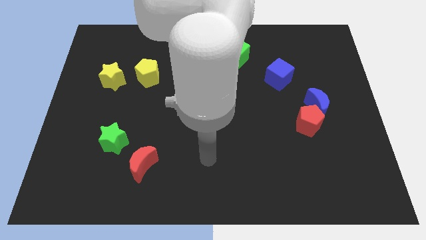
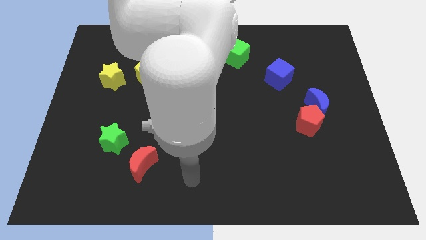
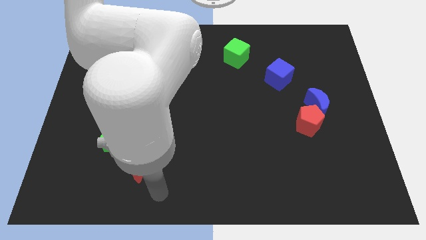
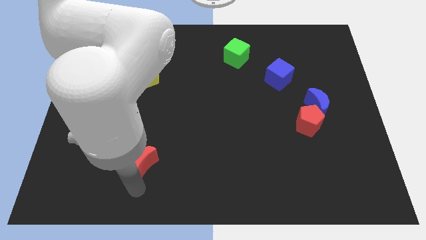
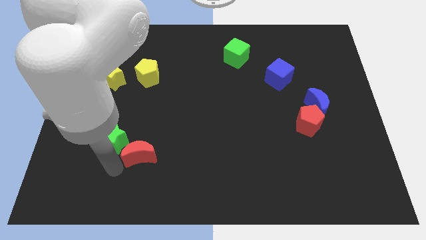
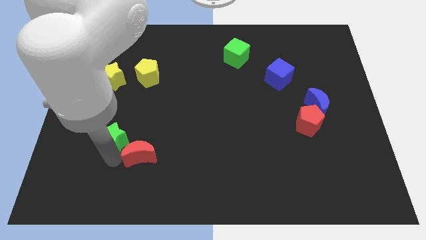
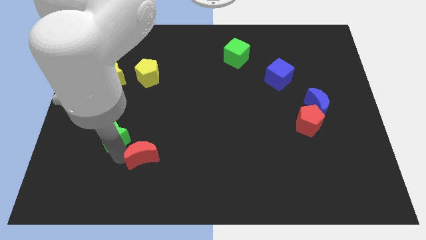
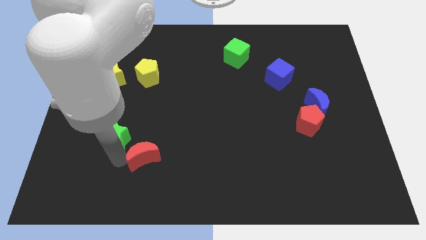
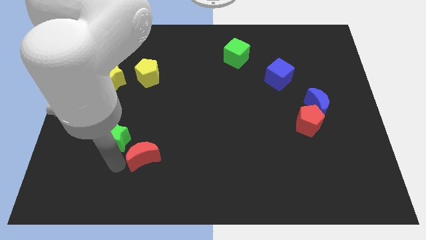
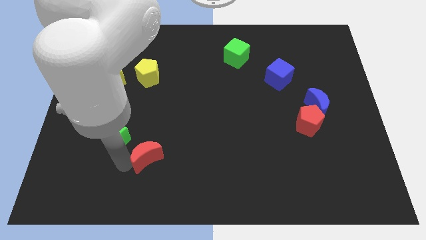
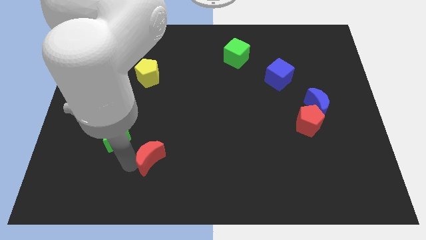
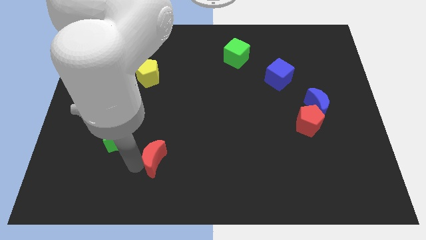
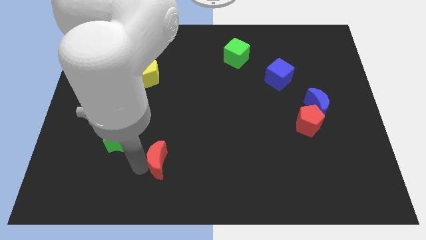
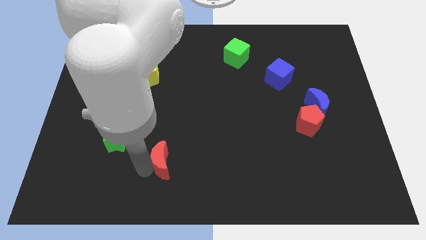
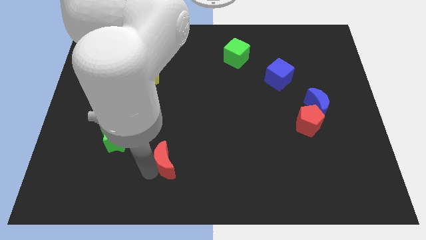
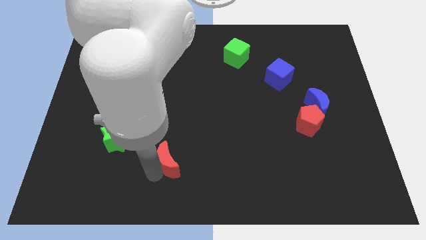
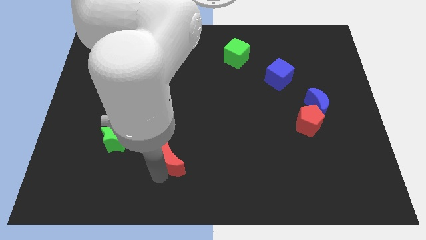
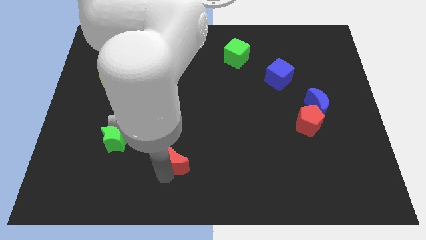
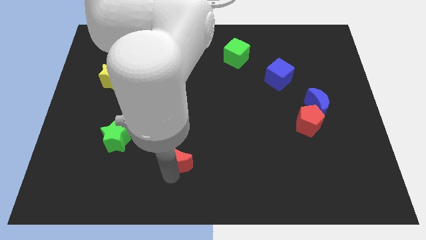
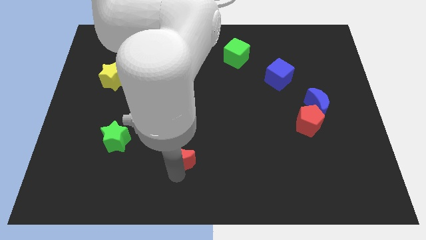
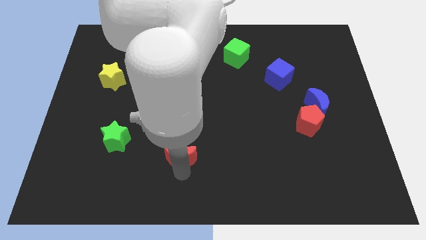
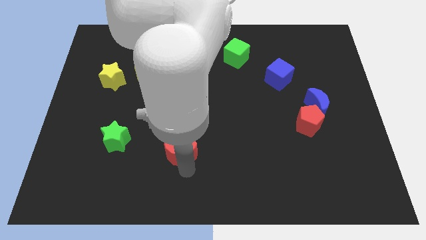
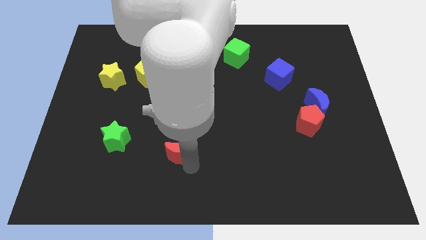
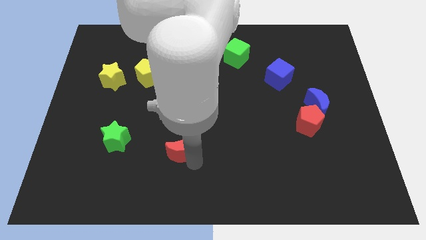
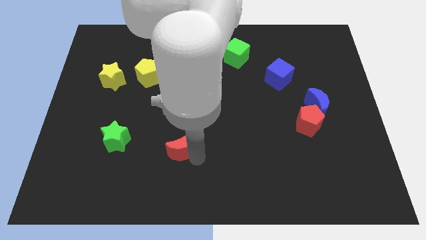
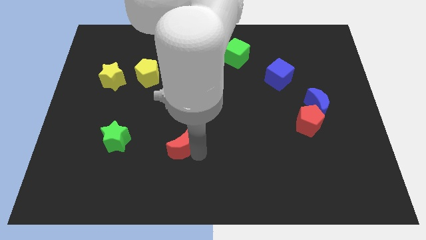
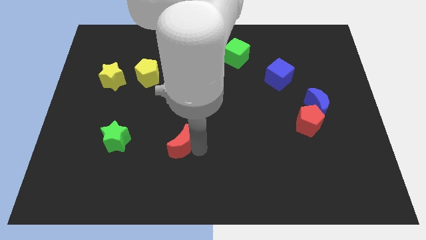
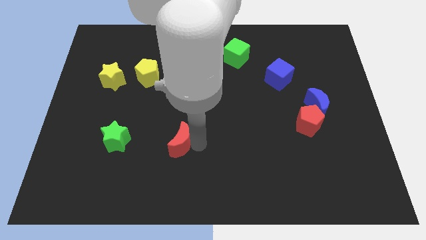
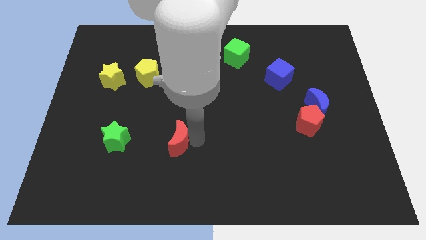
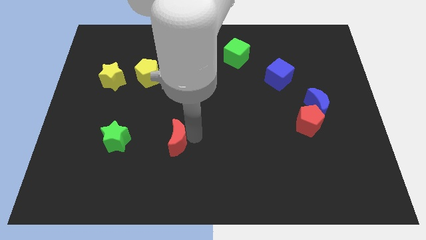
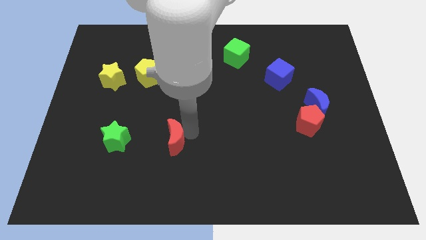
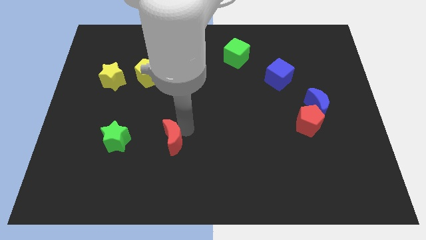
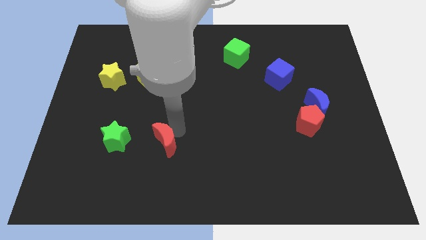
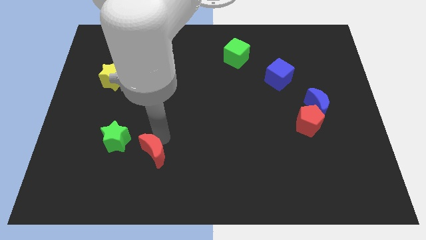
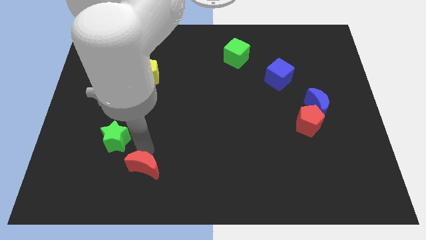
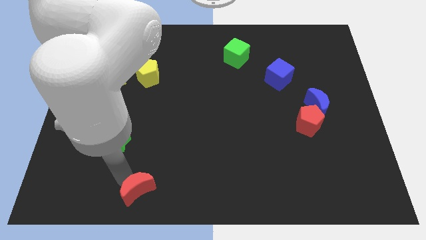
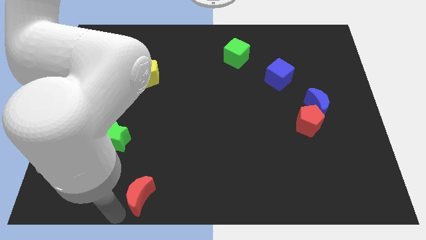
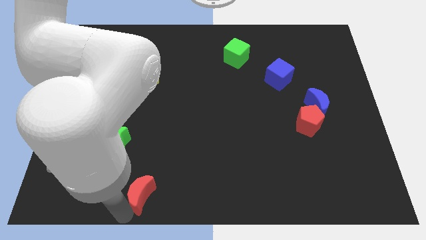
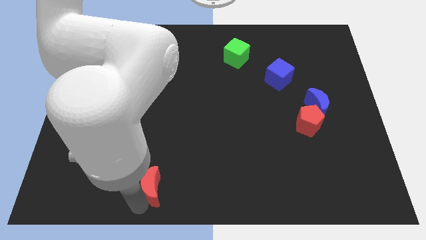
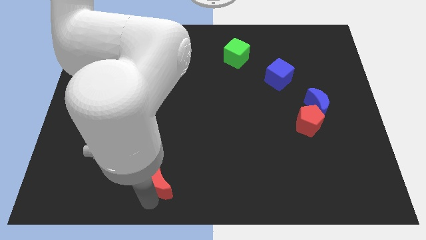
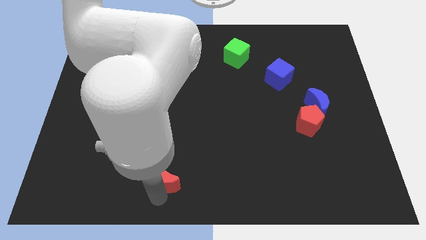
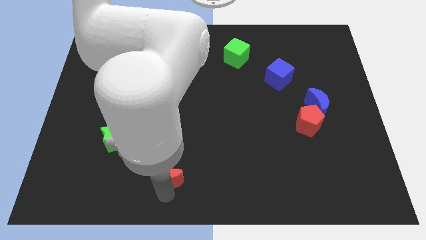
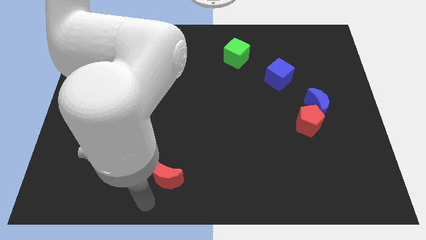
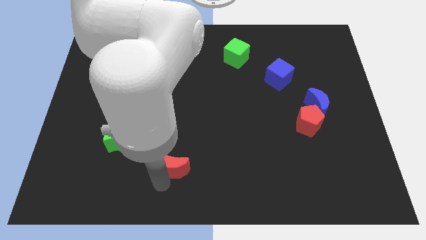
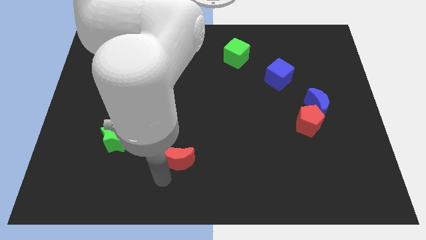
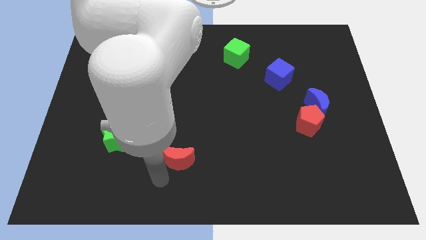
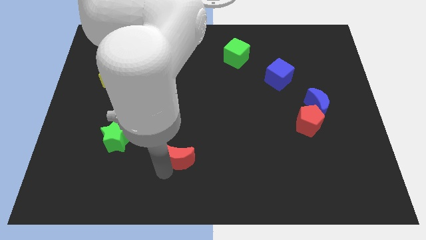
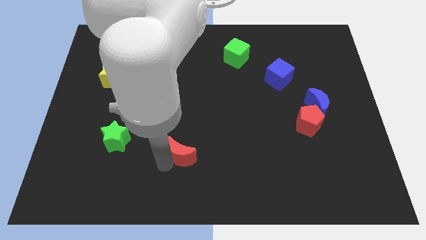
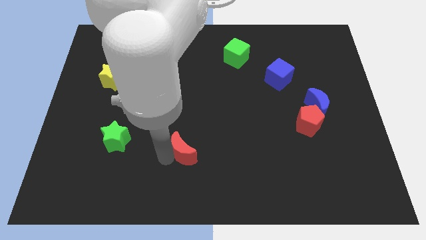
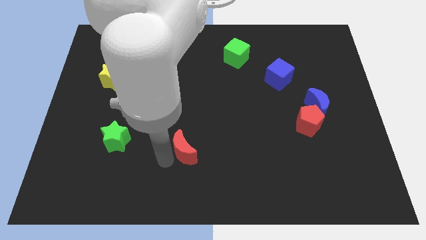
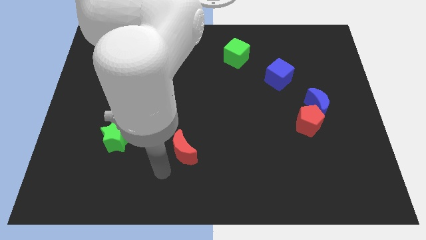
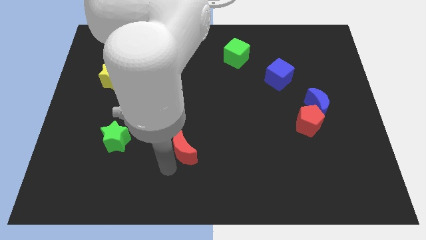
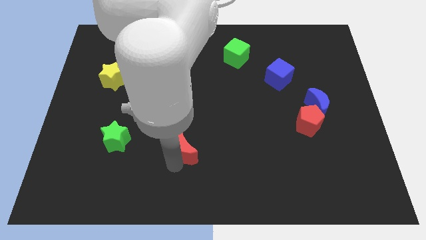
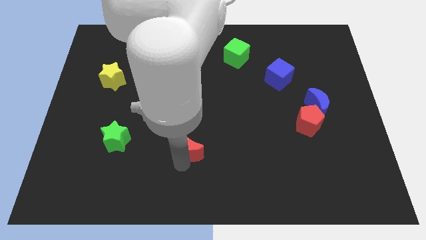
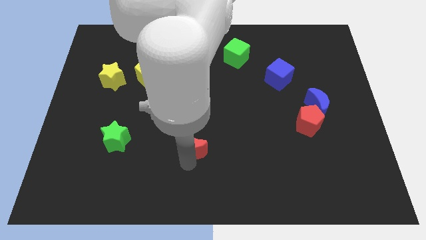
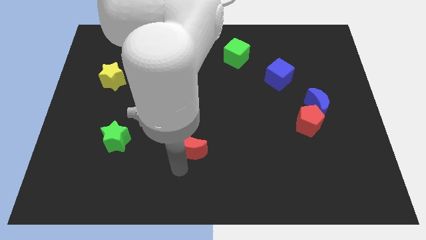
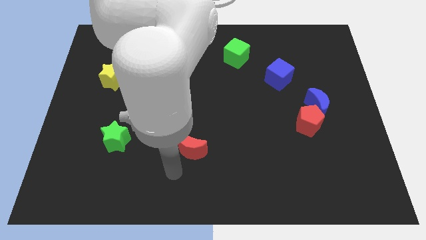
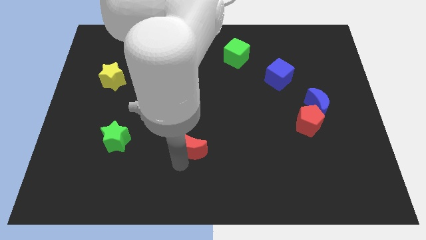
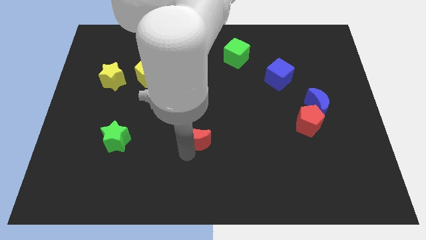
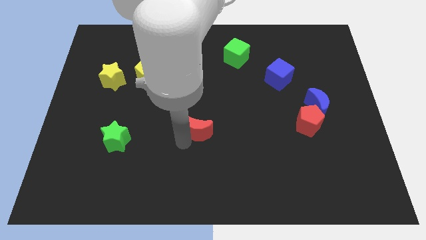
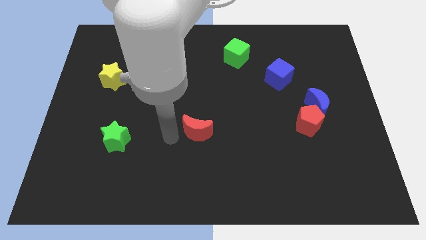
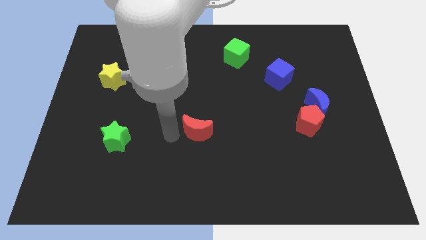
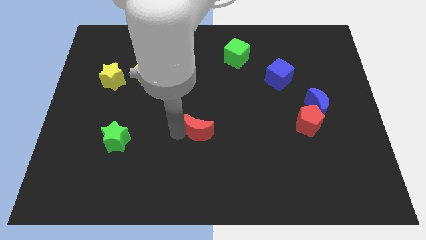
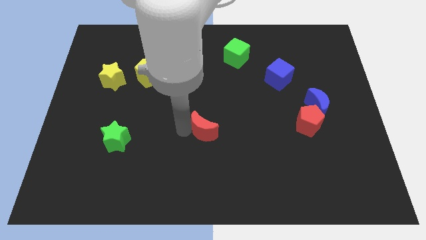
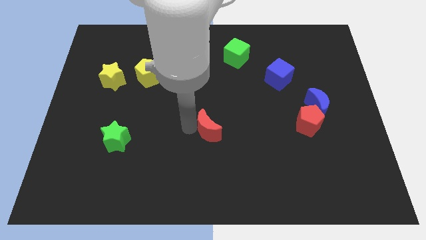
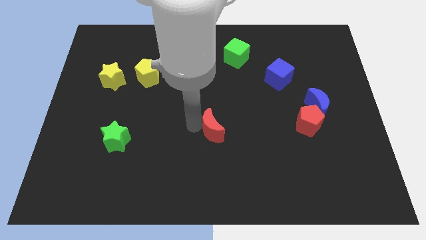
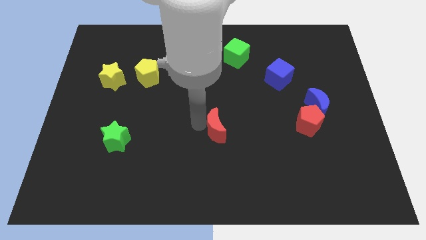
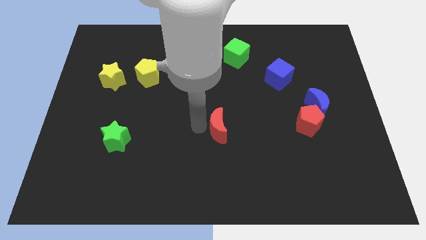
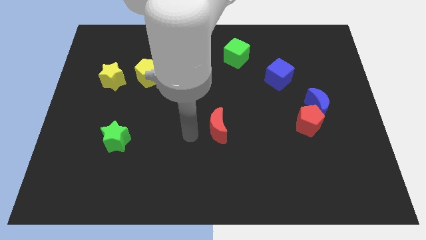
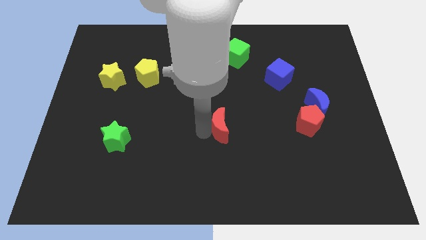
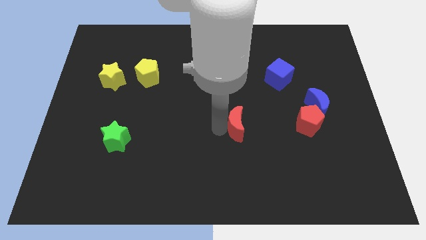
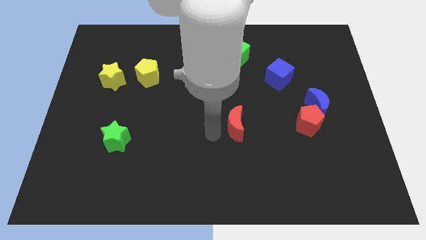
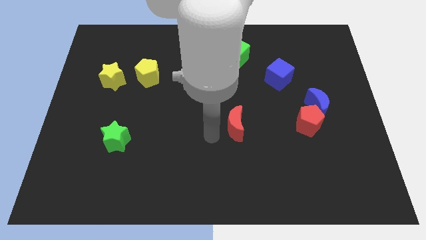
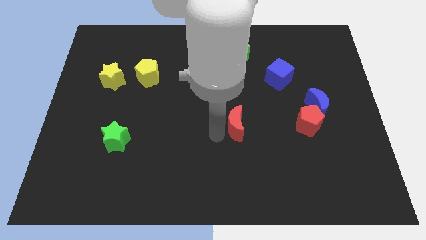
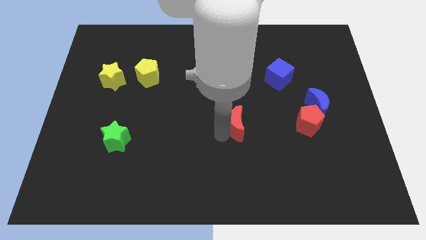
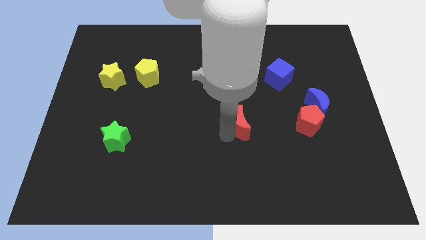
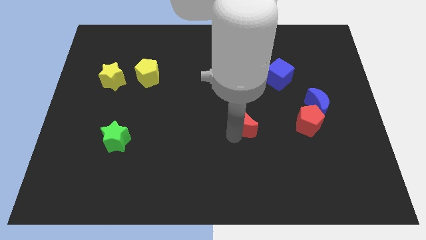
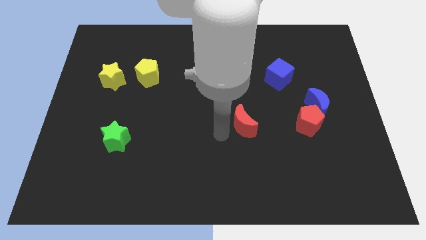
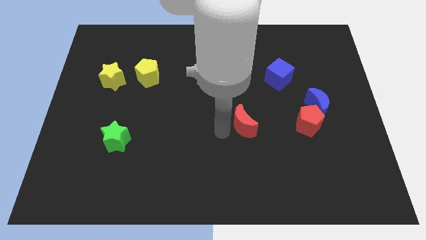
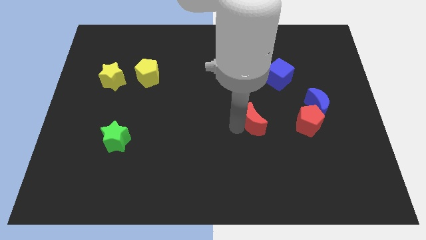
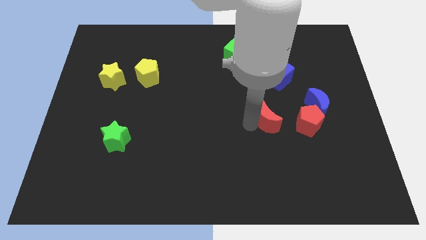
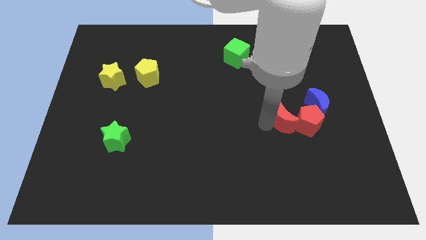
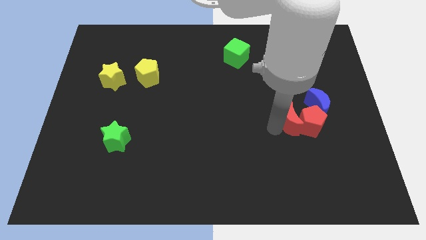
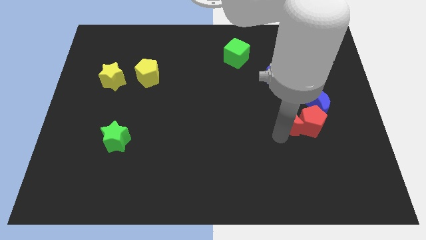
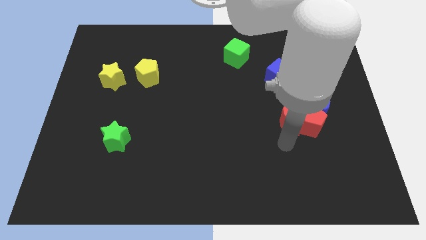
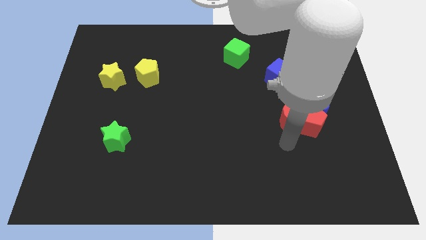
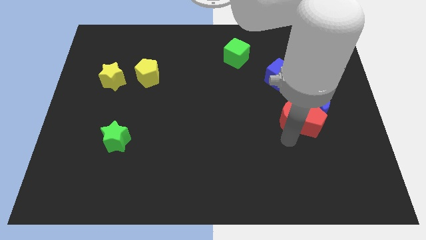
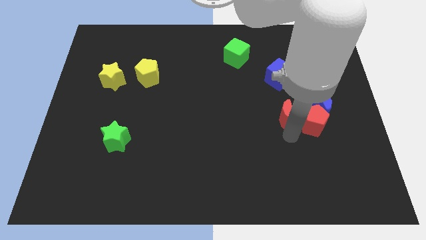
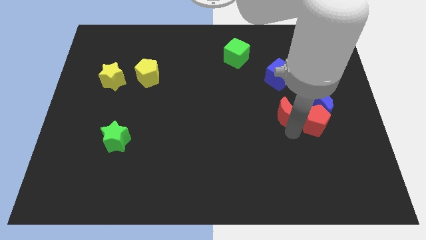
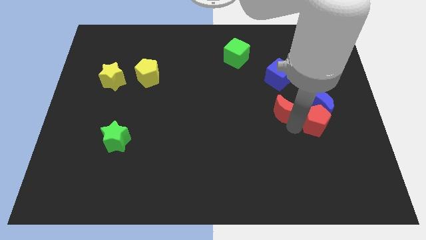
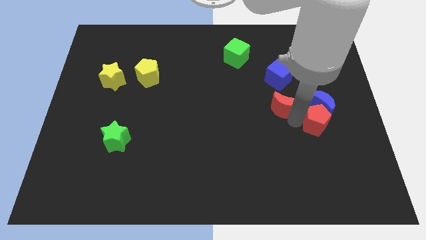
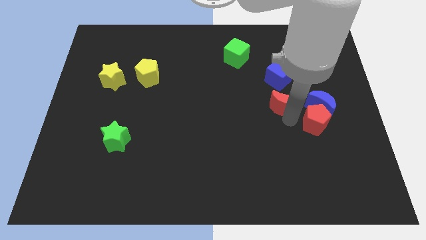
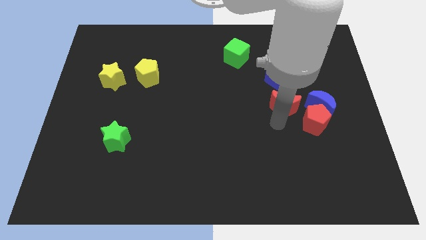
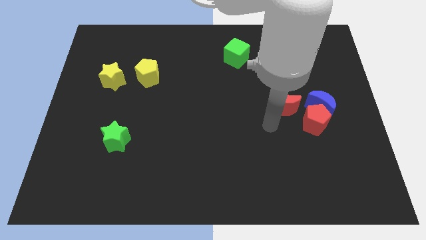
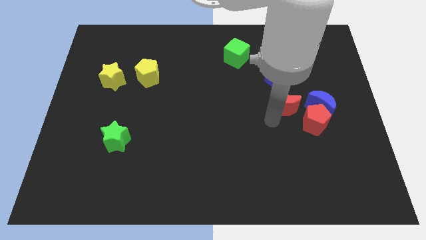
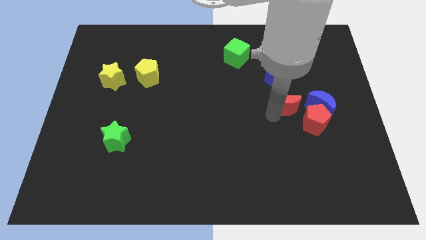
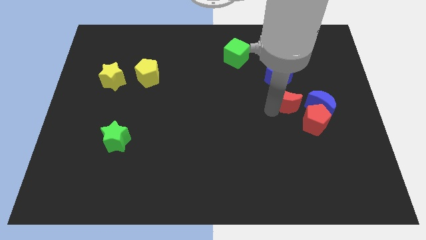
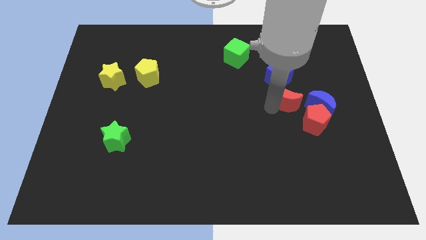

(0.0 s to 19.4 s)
push the red moon to the top left of the blue moon
